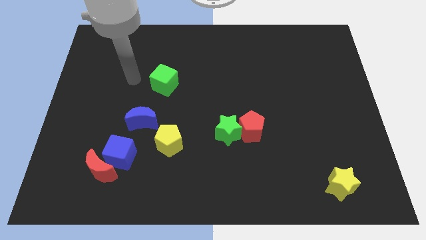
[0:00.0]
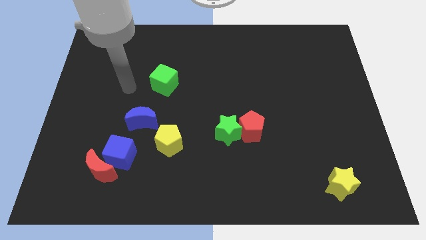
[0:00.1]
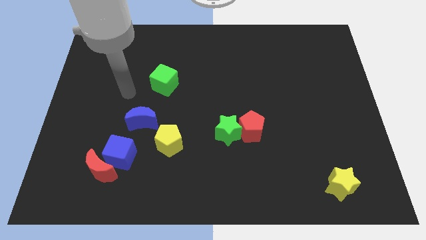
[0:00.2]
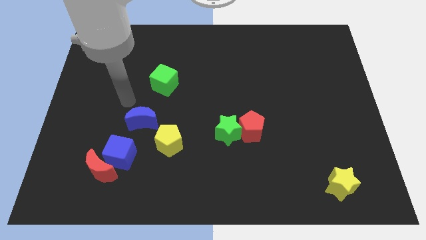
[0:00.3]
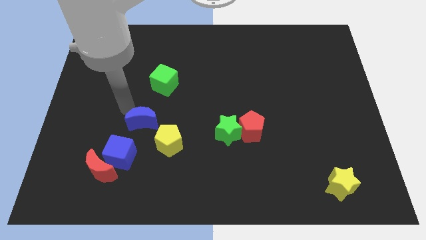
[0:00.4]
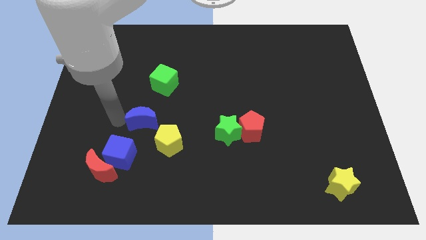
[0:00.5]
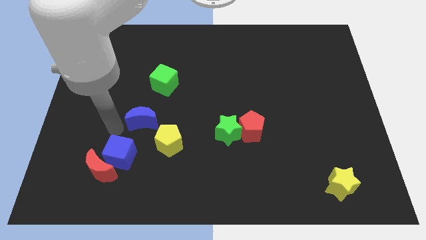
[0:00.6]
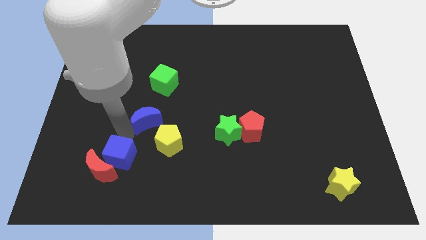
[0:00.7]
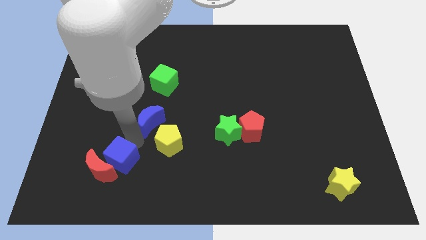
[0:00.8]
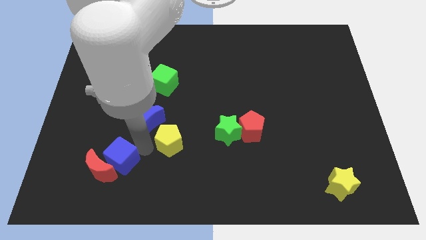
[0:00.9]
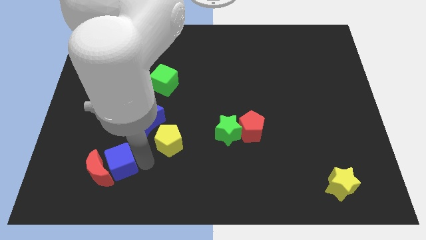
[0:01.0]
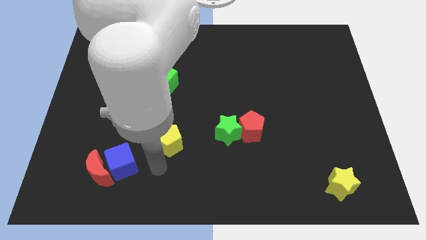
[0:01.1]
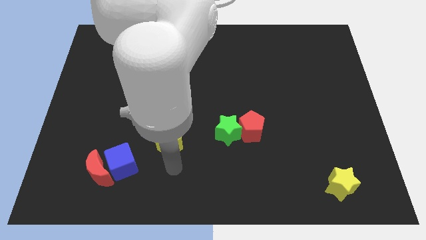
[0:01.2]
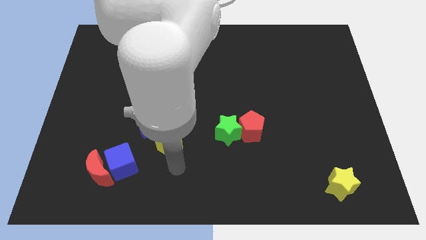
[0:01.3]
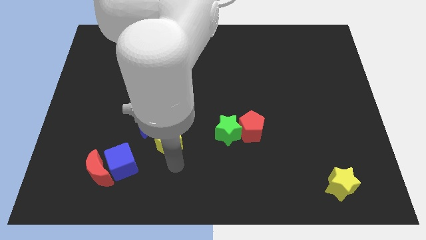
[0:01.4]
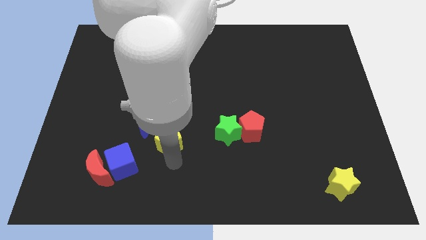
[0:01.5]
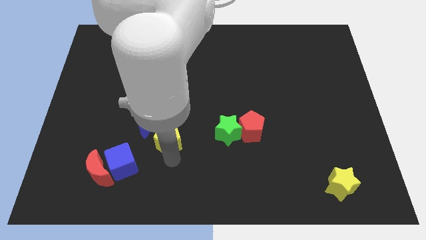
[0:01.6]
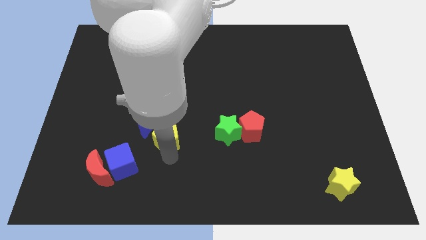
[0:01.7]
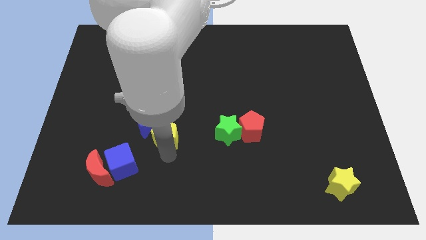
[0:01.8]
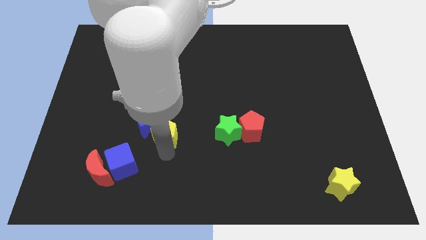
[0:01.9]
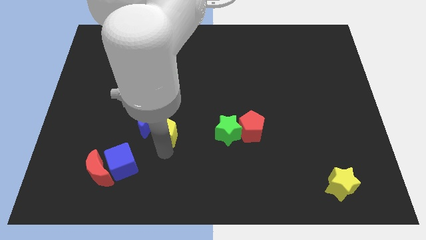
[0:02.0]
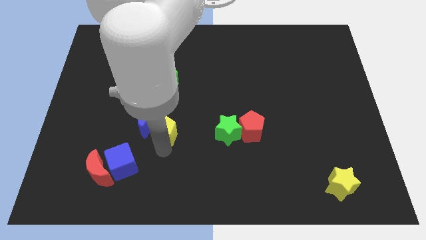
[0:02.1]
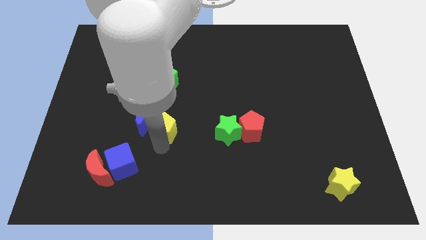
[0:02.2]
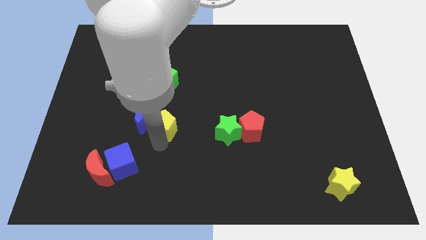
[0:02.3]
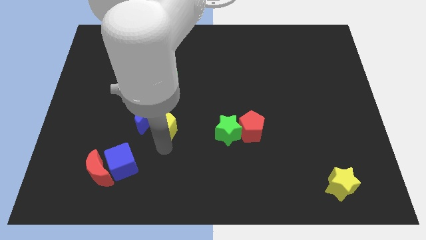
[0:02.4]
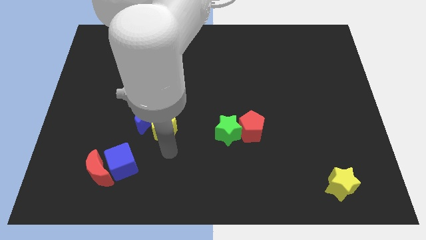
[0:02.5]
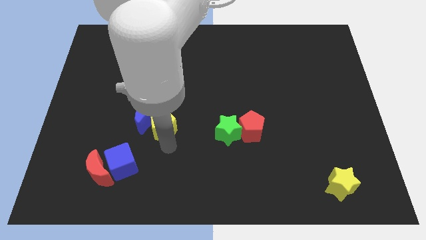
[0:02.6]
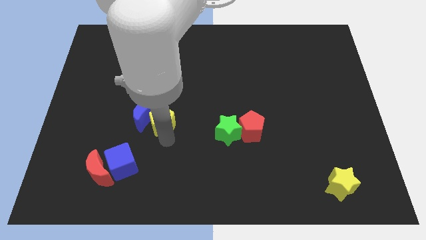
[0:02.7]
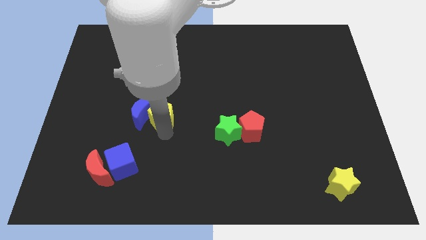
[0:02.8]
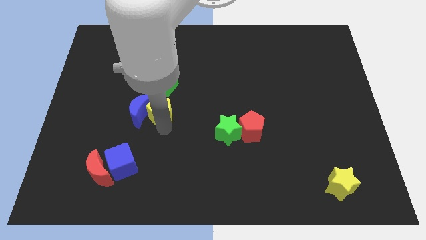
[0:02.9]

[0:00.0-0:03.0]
slightly move the yellow pentagon upwards and to the left

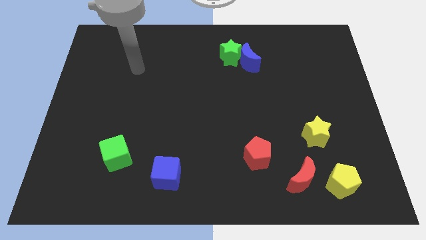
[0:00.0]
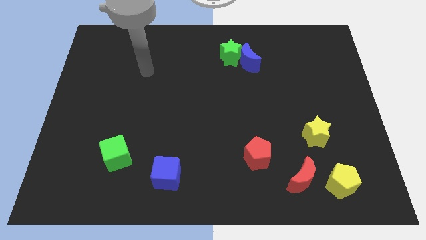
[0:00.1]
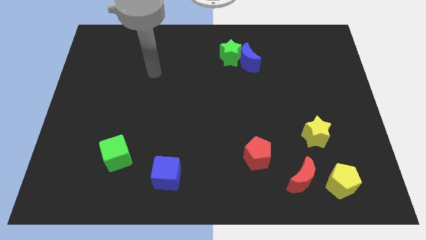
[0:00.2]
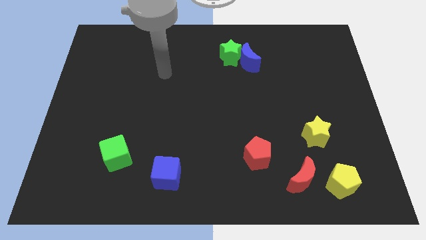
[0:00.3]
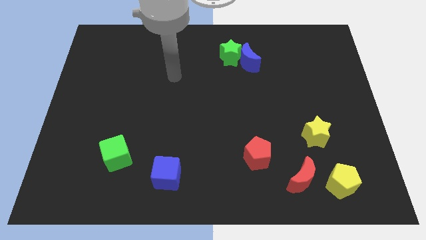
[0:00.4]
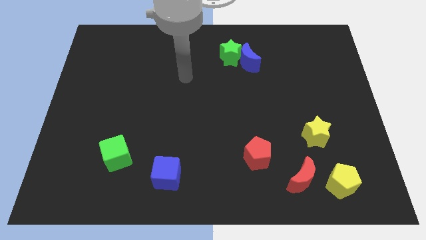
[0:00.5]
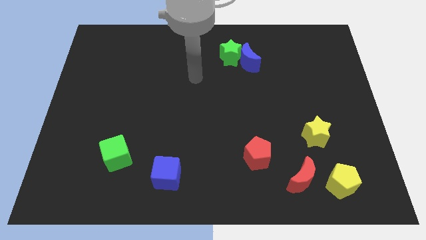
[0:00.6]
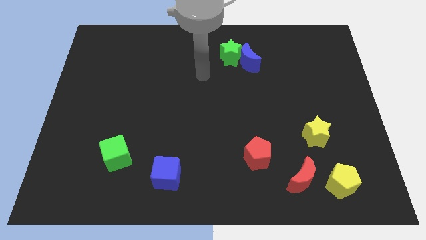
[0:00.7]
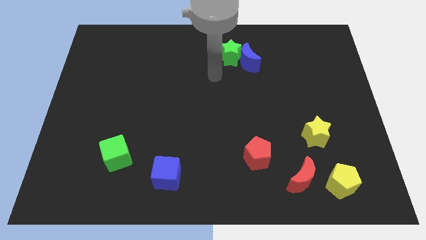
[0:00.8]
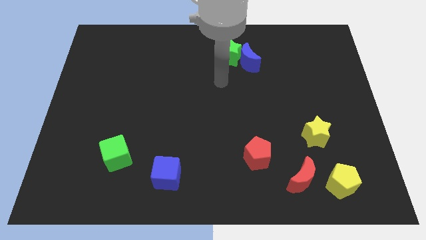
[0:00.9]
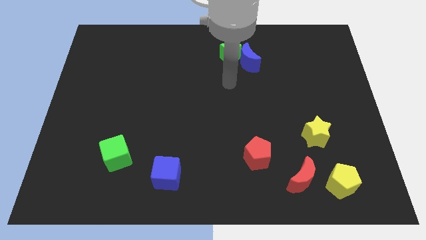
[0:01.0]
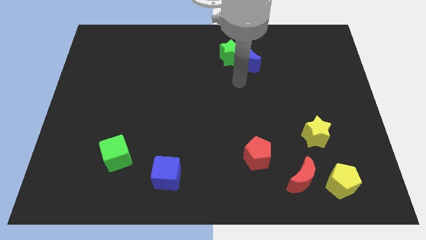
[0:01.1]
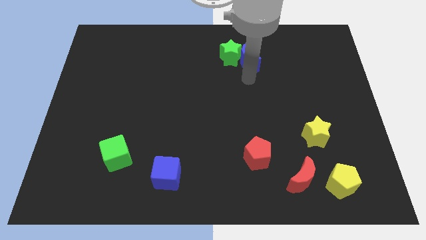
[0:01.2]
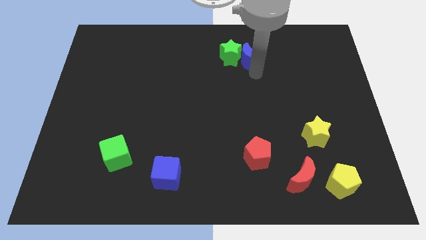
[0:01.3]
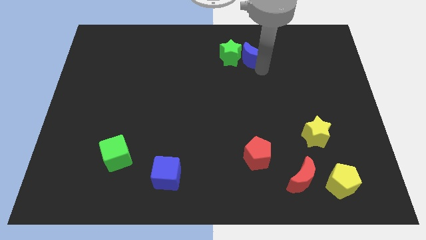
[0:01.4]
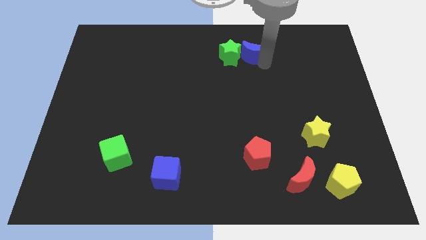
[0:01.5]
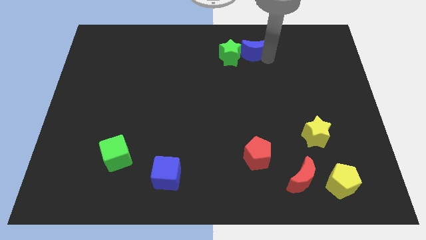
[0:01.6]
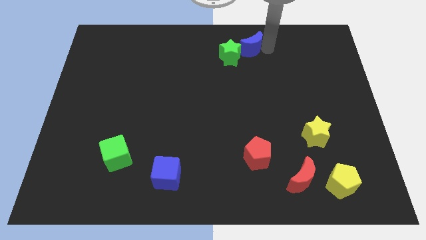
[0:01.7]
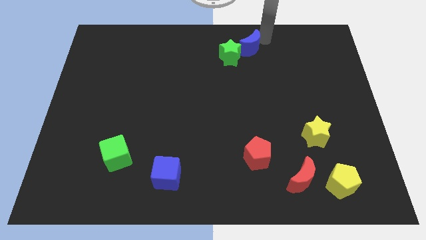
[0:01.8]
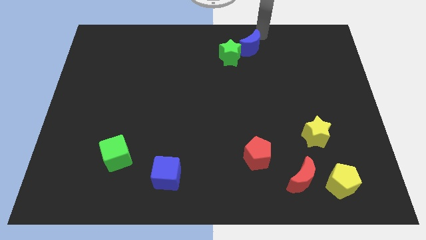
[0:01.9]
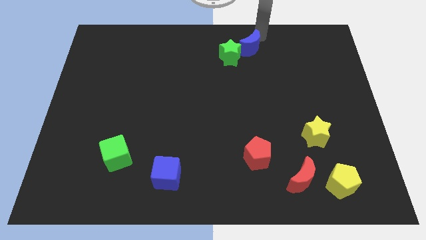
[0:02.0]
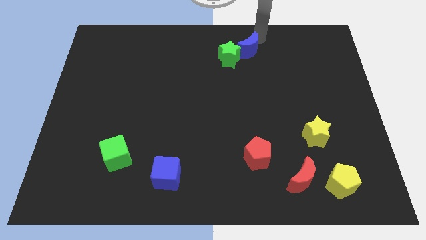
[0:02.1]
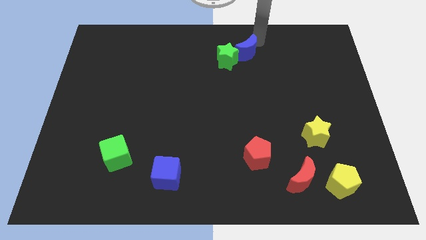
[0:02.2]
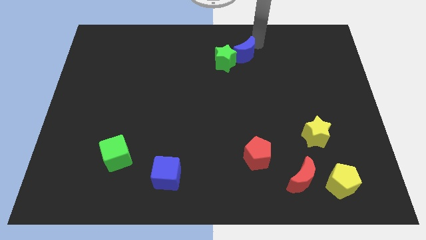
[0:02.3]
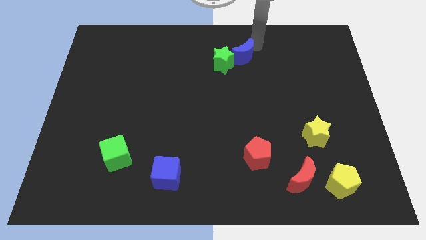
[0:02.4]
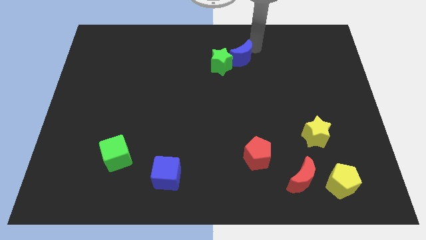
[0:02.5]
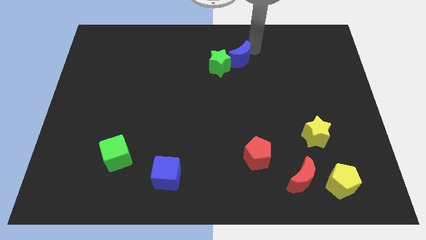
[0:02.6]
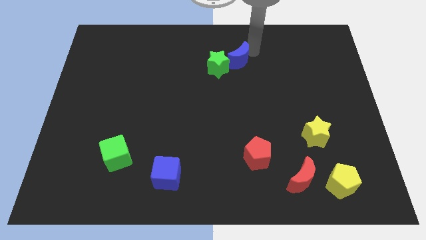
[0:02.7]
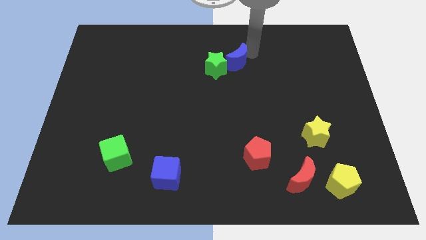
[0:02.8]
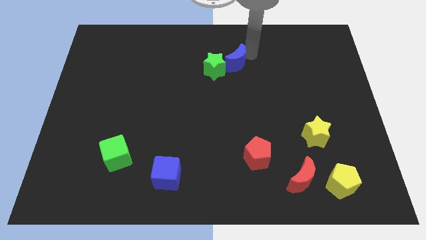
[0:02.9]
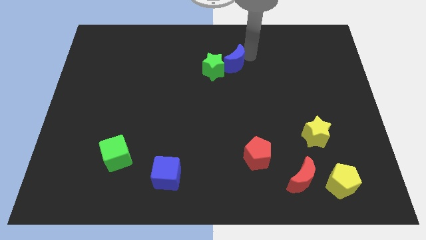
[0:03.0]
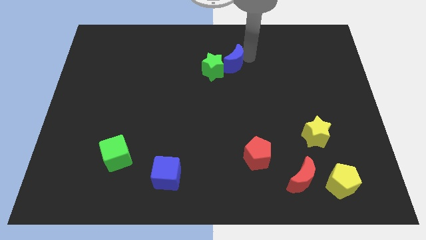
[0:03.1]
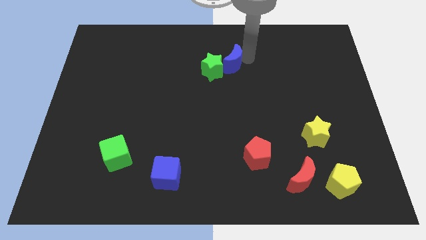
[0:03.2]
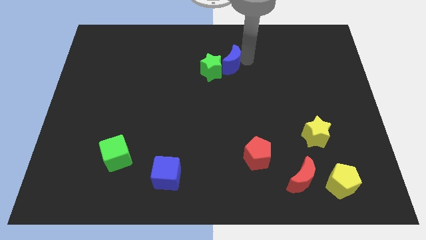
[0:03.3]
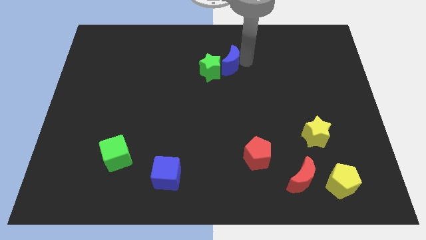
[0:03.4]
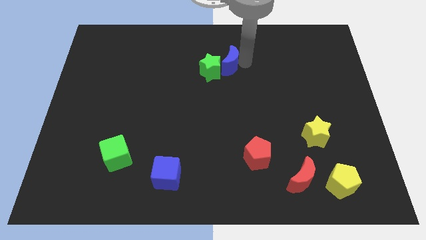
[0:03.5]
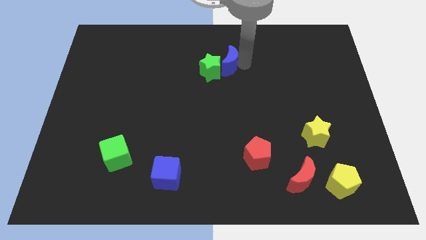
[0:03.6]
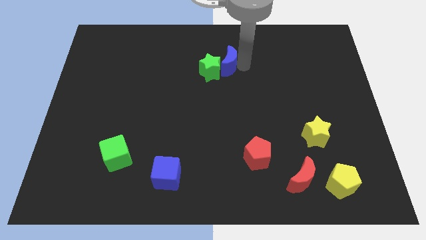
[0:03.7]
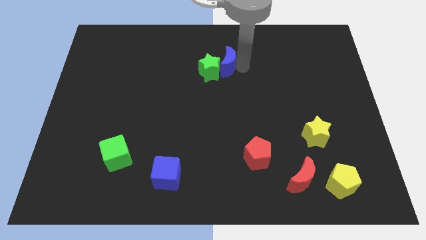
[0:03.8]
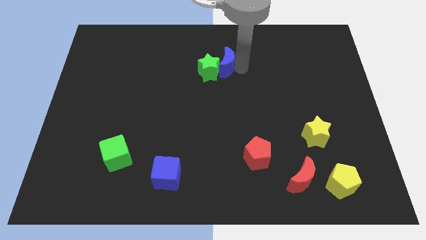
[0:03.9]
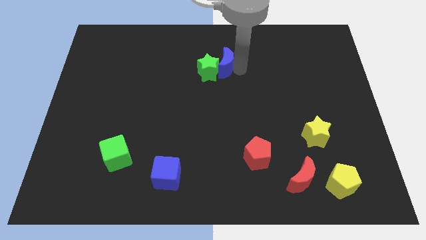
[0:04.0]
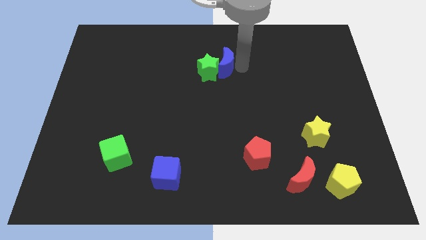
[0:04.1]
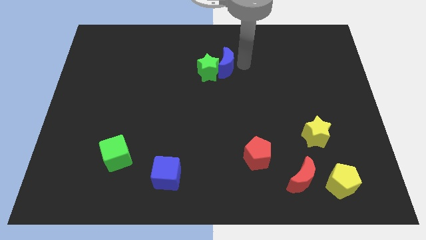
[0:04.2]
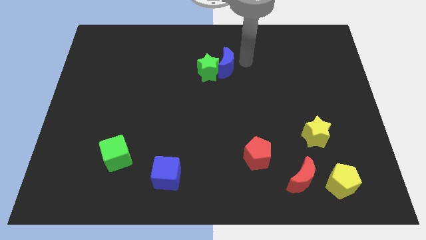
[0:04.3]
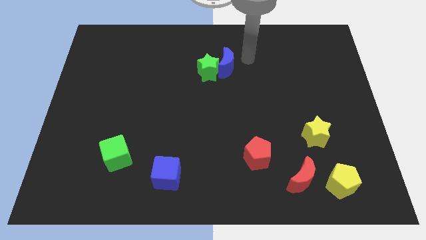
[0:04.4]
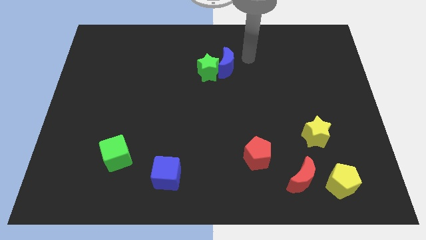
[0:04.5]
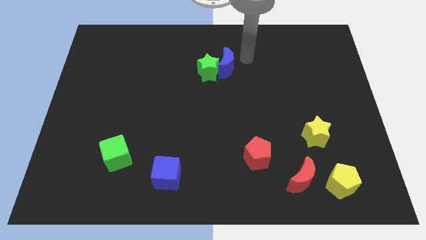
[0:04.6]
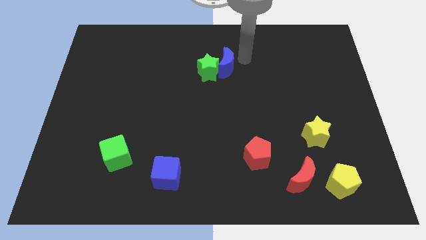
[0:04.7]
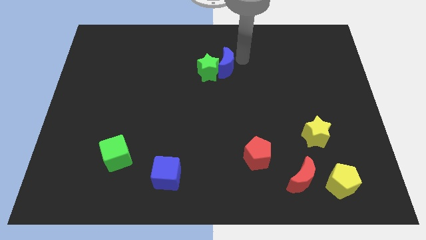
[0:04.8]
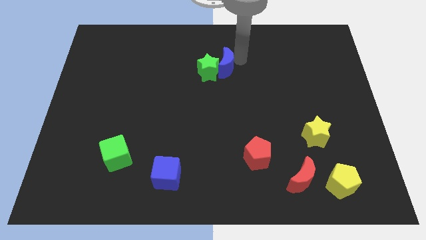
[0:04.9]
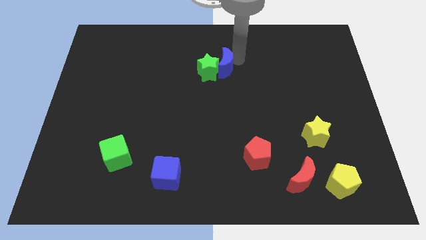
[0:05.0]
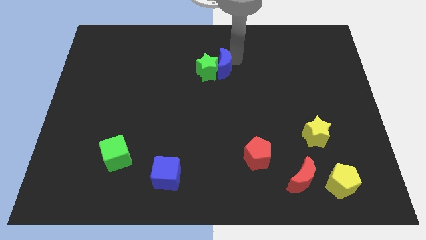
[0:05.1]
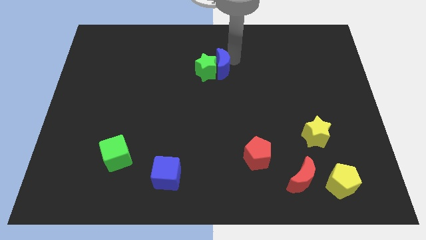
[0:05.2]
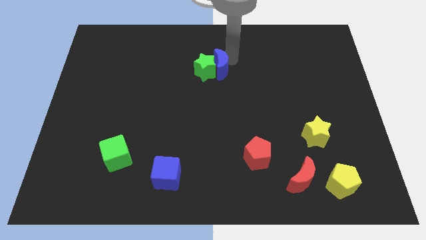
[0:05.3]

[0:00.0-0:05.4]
push the blue moon left somewhat
